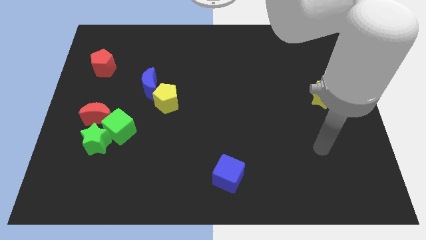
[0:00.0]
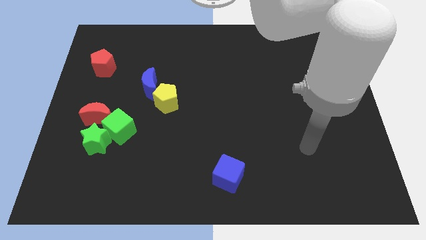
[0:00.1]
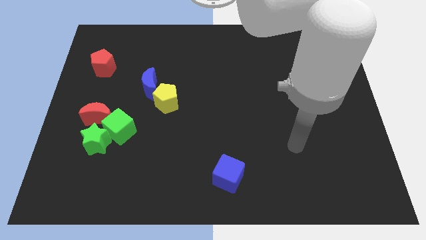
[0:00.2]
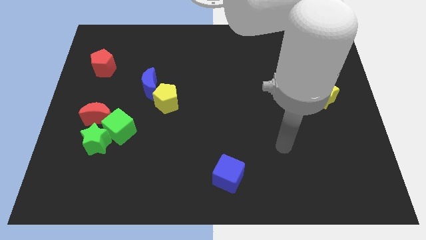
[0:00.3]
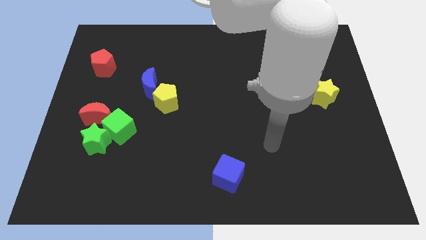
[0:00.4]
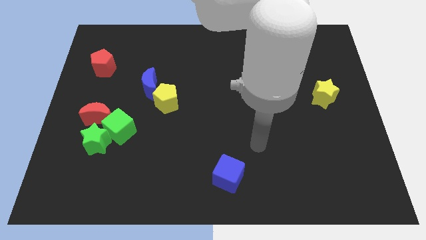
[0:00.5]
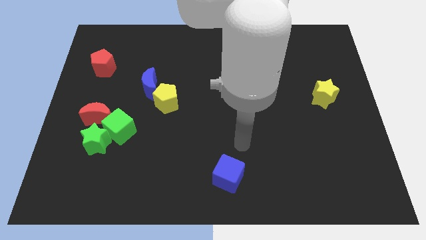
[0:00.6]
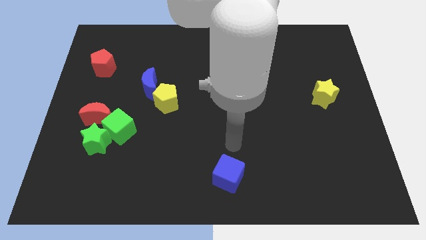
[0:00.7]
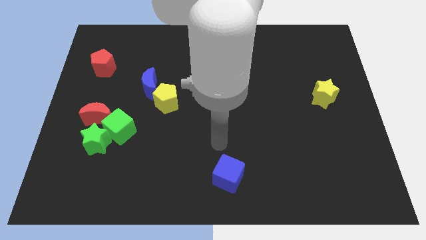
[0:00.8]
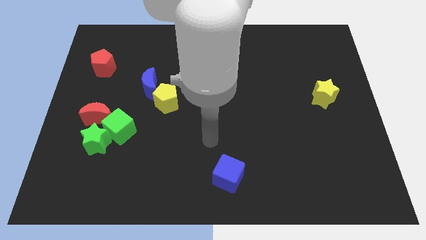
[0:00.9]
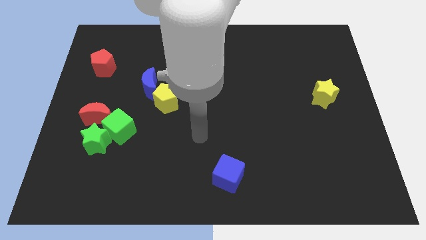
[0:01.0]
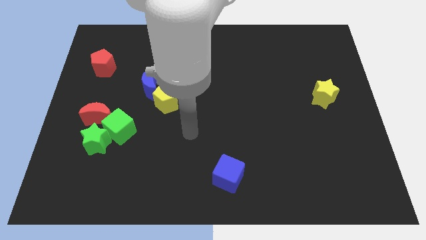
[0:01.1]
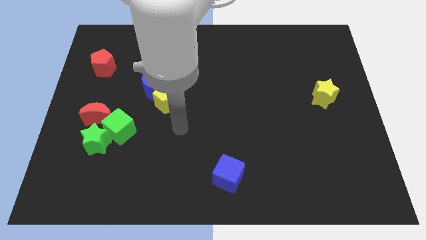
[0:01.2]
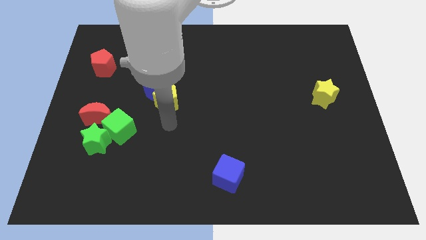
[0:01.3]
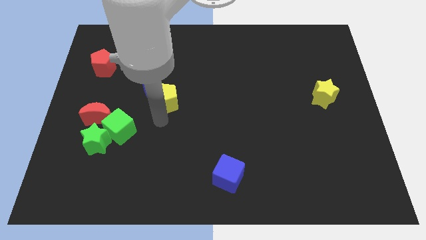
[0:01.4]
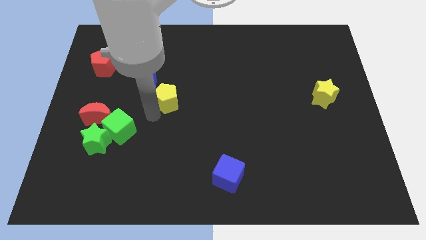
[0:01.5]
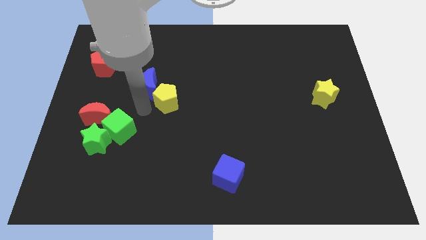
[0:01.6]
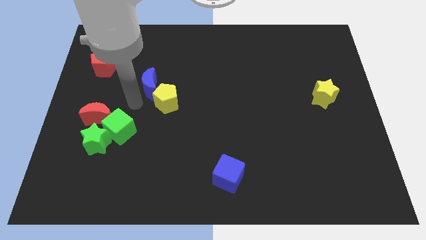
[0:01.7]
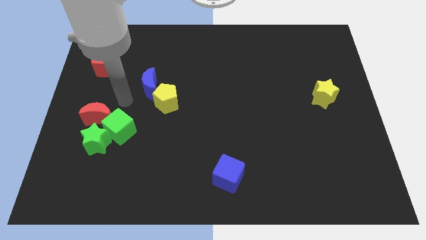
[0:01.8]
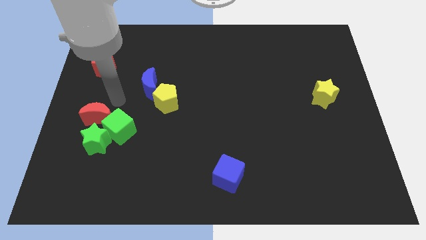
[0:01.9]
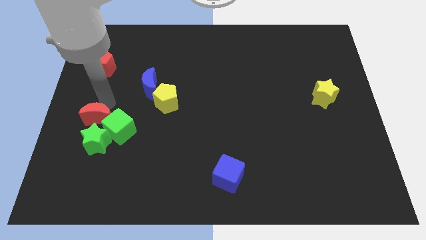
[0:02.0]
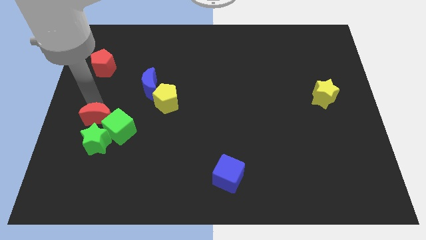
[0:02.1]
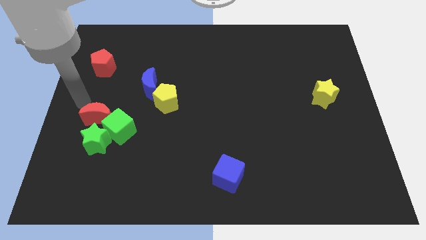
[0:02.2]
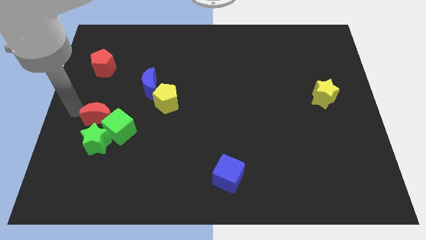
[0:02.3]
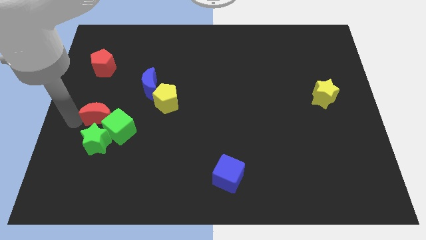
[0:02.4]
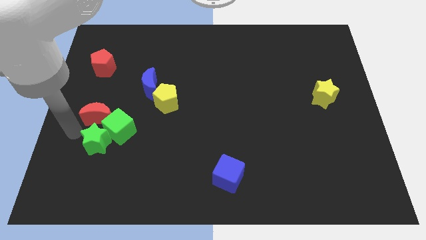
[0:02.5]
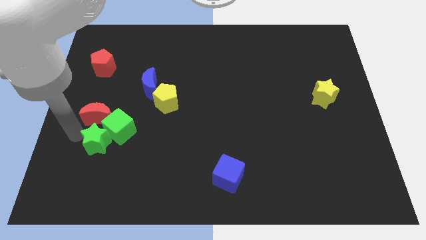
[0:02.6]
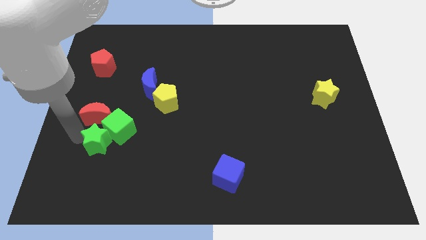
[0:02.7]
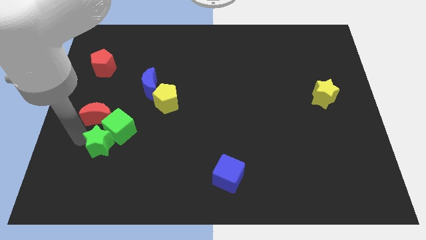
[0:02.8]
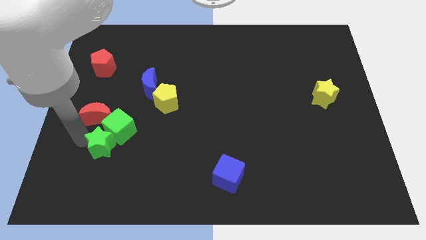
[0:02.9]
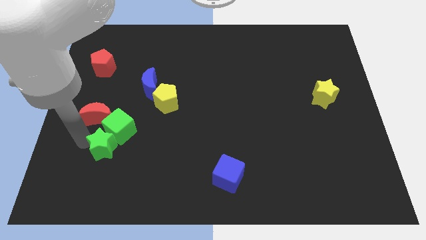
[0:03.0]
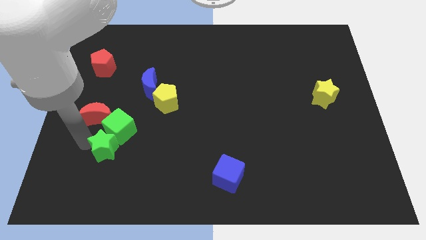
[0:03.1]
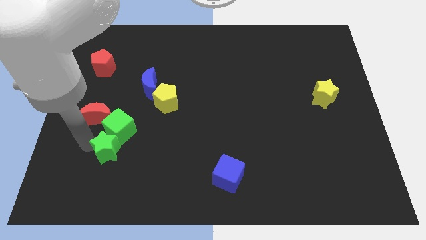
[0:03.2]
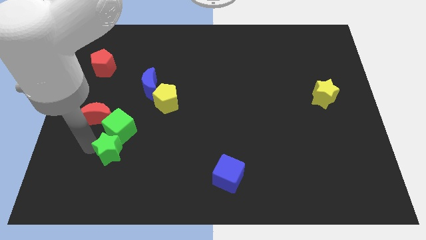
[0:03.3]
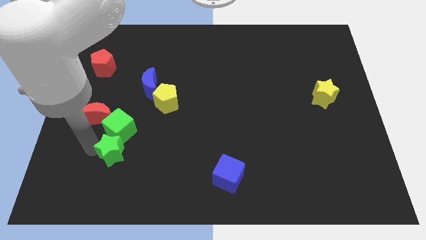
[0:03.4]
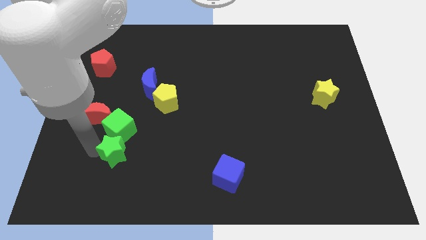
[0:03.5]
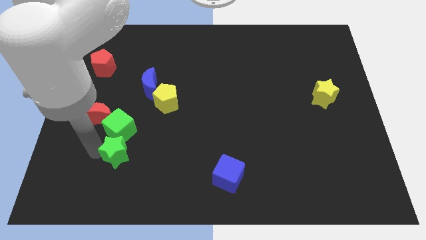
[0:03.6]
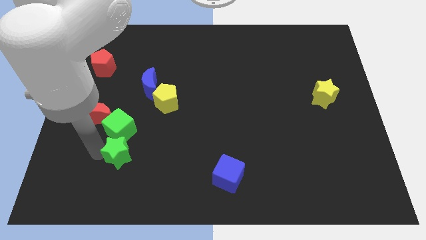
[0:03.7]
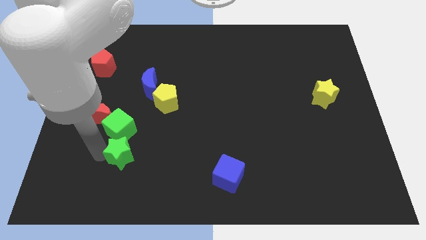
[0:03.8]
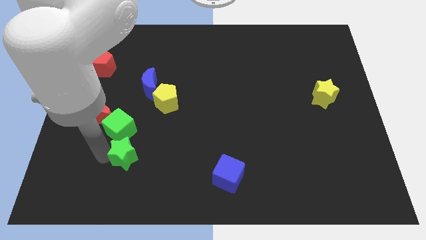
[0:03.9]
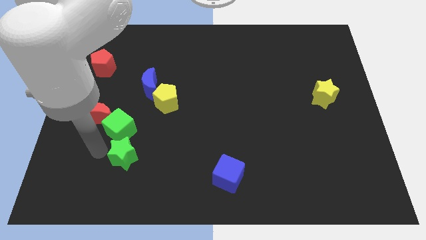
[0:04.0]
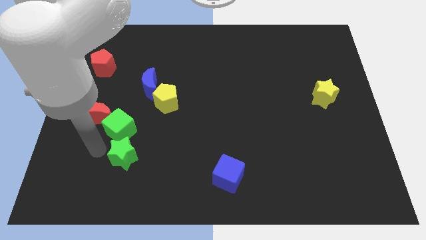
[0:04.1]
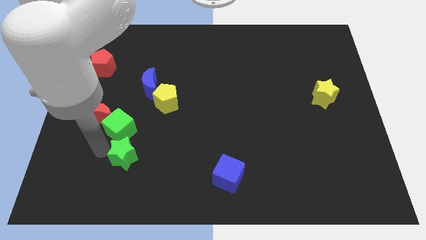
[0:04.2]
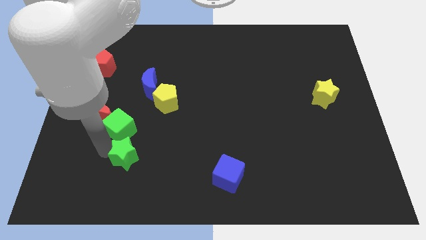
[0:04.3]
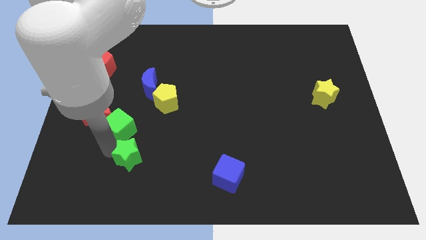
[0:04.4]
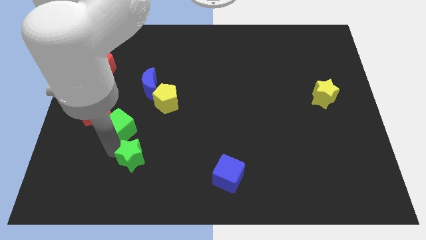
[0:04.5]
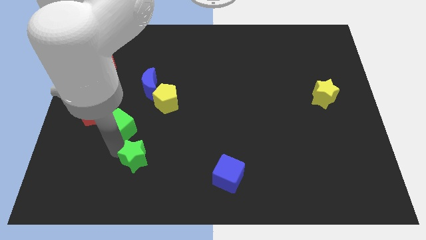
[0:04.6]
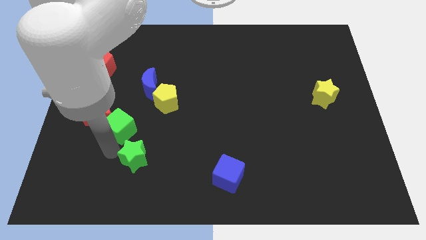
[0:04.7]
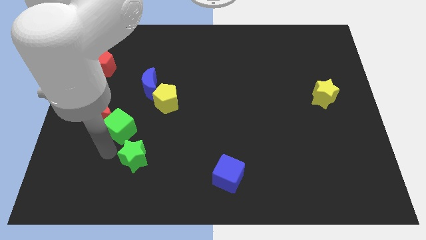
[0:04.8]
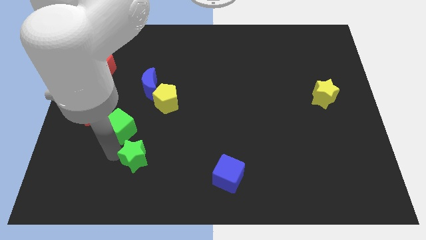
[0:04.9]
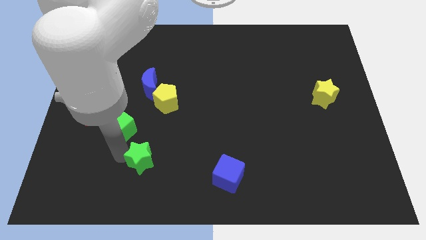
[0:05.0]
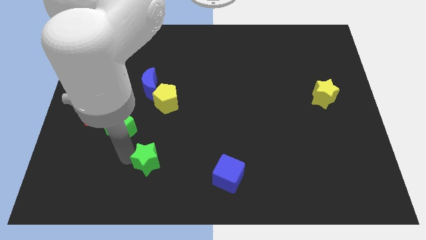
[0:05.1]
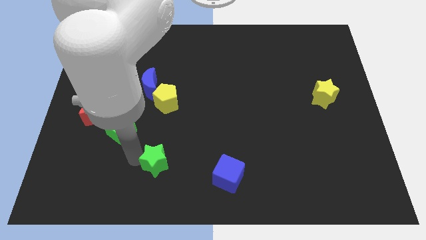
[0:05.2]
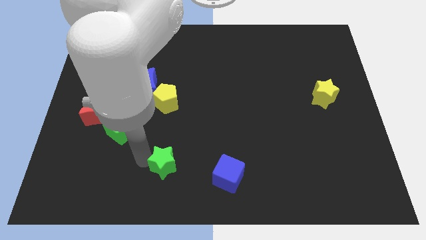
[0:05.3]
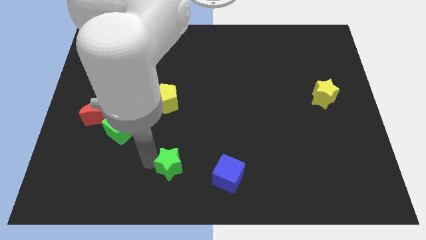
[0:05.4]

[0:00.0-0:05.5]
move the green star to the bottom side
